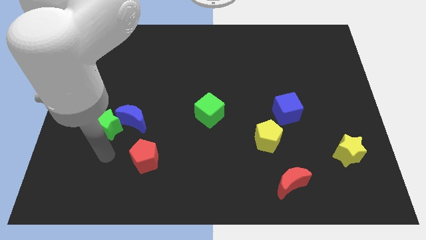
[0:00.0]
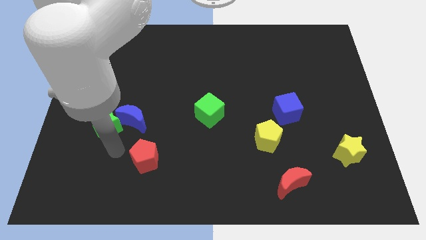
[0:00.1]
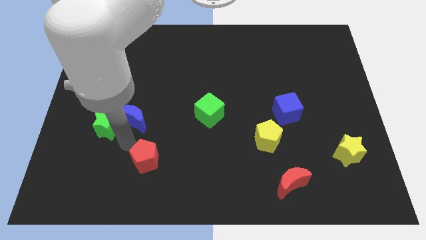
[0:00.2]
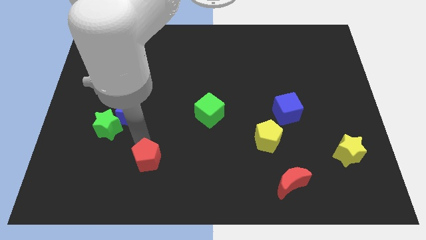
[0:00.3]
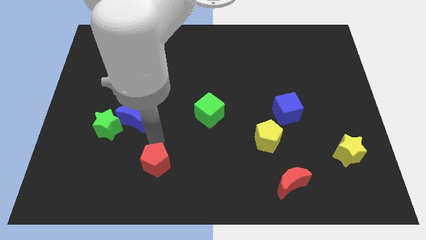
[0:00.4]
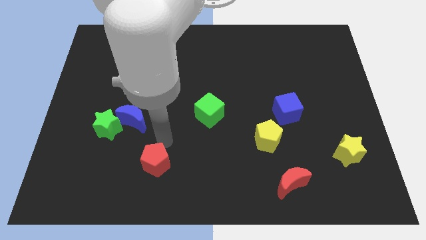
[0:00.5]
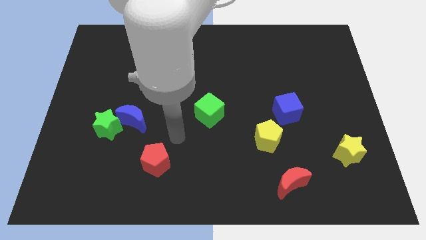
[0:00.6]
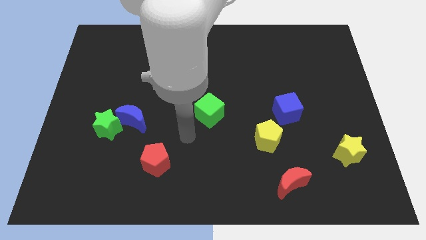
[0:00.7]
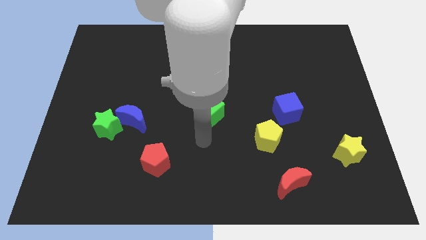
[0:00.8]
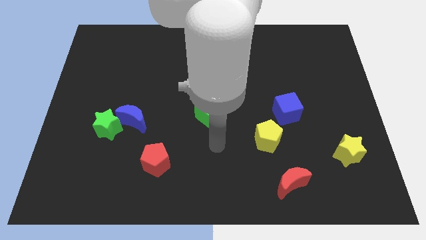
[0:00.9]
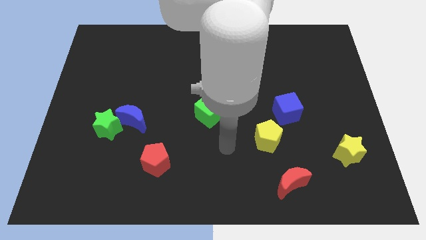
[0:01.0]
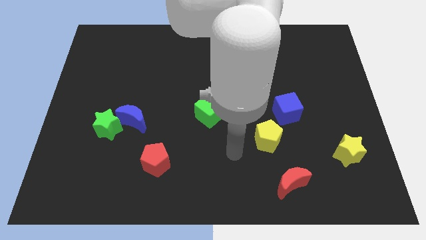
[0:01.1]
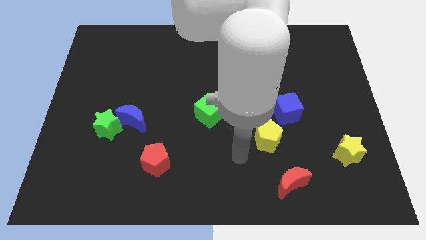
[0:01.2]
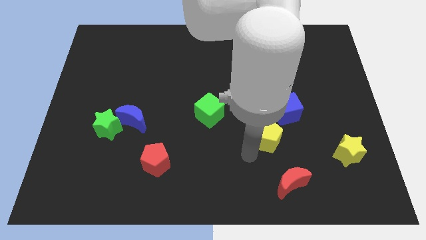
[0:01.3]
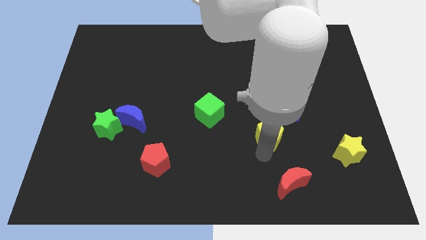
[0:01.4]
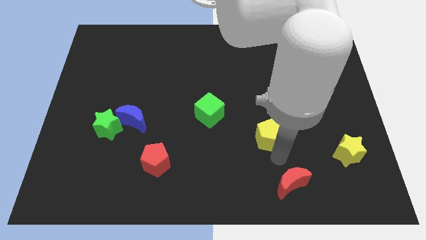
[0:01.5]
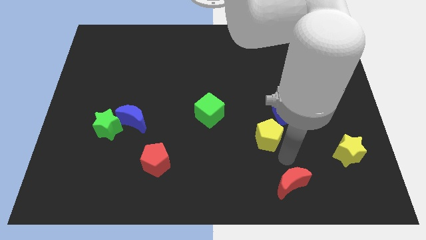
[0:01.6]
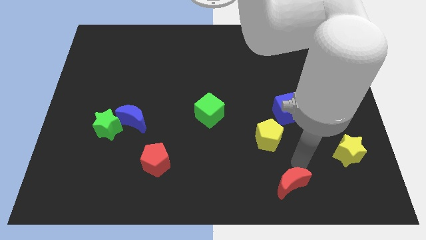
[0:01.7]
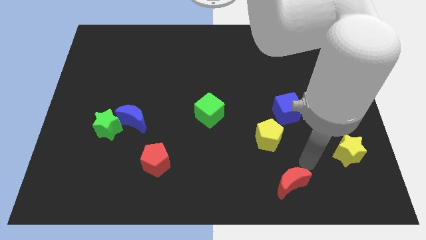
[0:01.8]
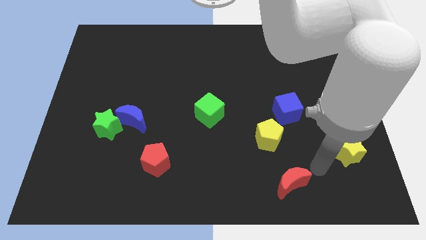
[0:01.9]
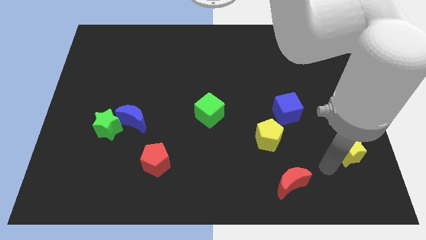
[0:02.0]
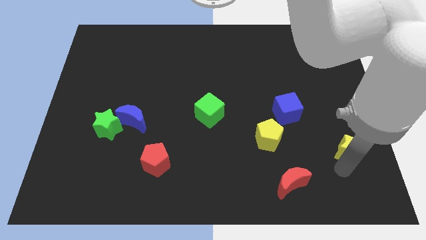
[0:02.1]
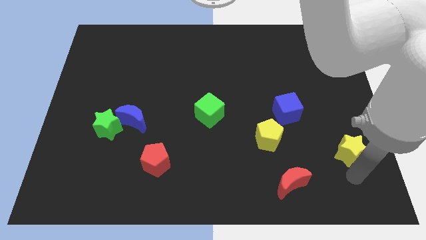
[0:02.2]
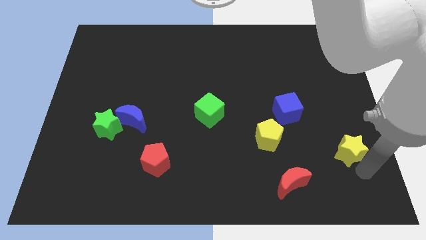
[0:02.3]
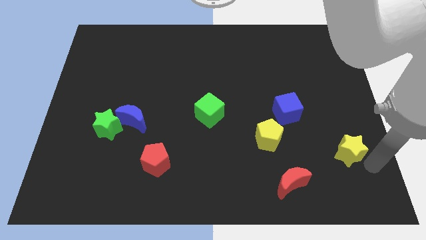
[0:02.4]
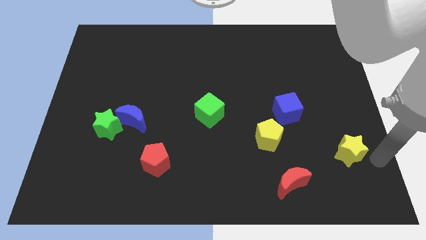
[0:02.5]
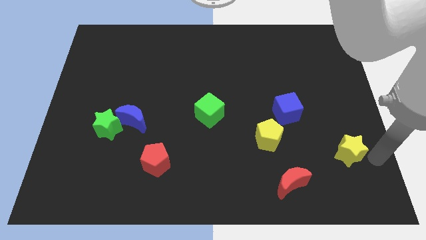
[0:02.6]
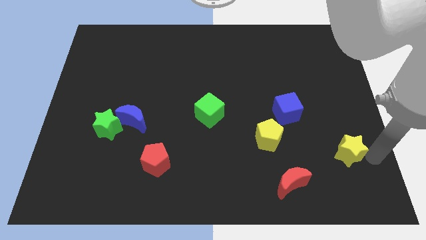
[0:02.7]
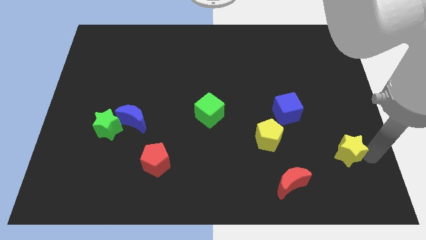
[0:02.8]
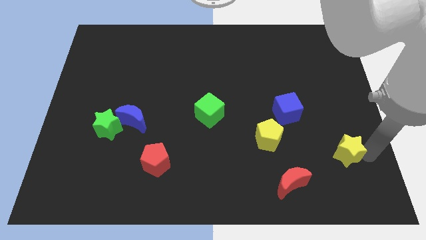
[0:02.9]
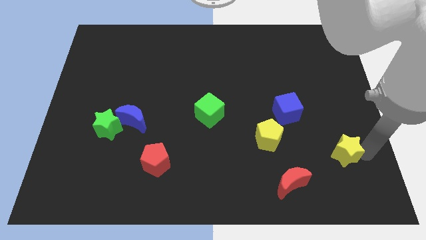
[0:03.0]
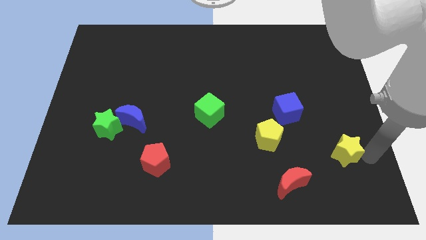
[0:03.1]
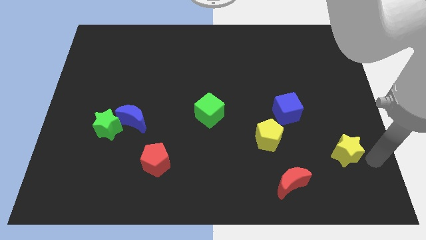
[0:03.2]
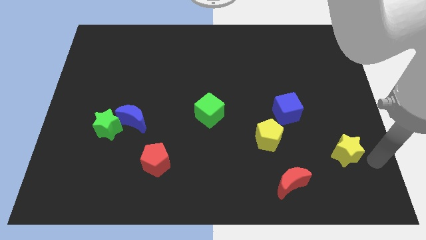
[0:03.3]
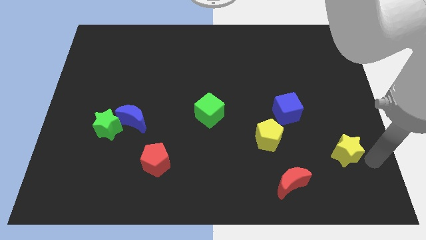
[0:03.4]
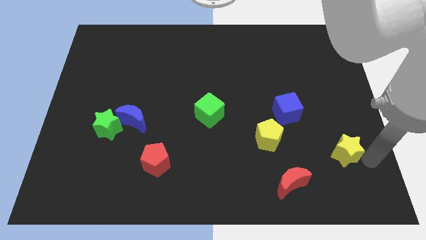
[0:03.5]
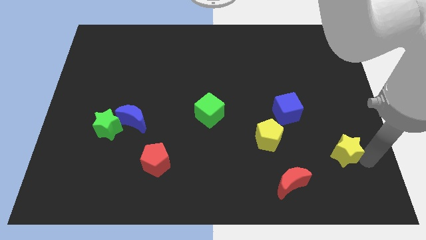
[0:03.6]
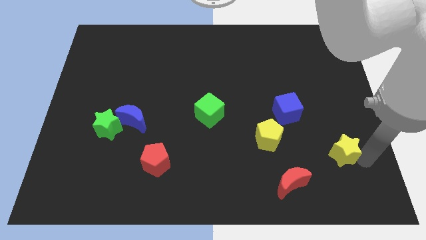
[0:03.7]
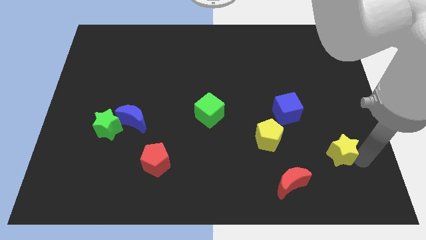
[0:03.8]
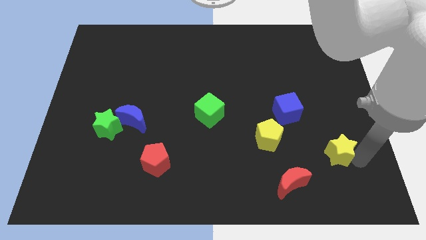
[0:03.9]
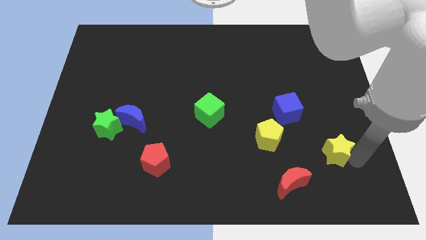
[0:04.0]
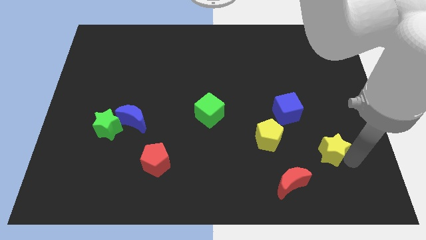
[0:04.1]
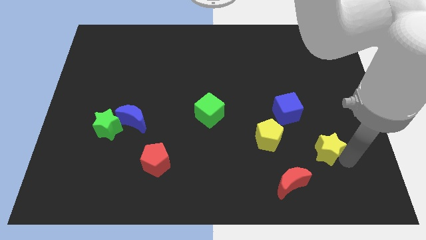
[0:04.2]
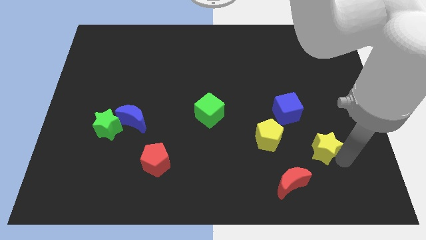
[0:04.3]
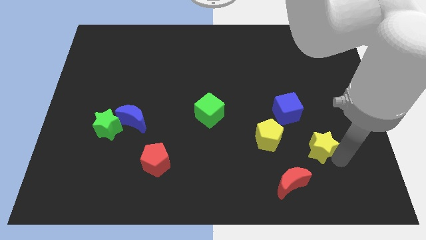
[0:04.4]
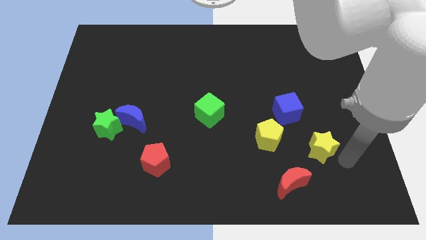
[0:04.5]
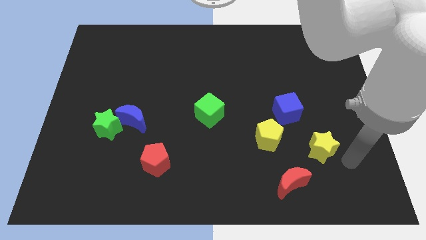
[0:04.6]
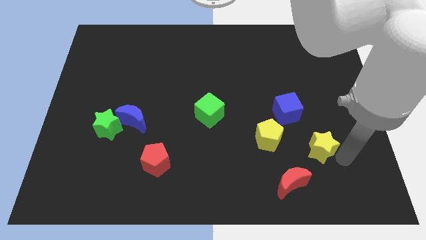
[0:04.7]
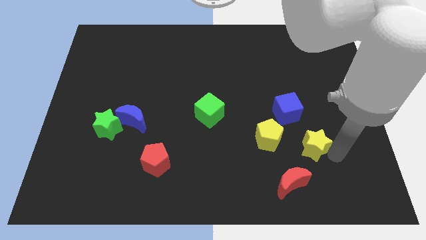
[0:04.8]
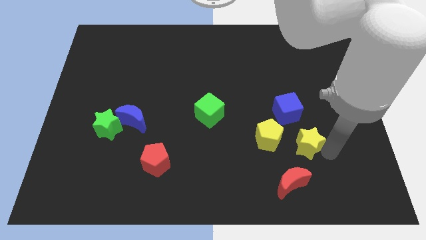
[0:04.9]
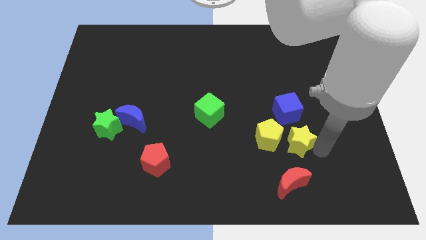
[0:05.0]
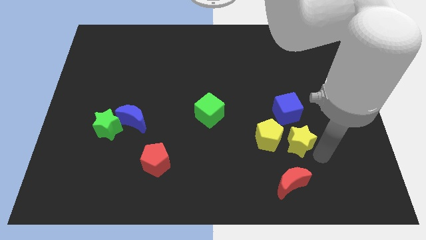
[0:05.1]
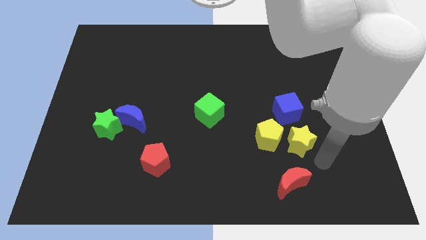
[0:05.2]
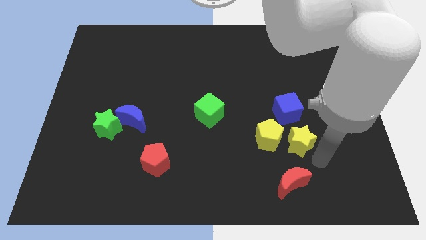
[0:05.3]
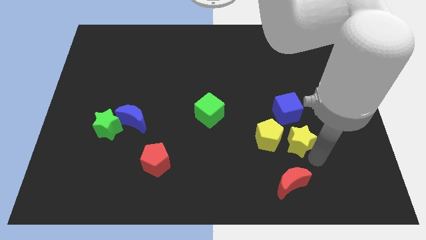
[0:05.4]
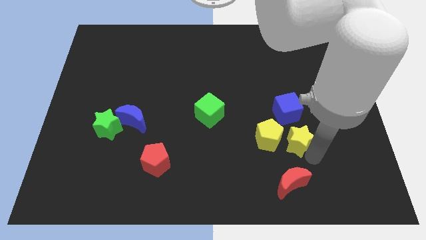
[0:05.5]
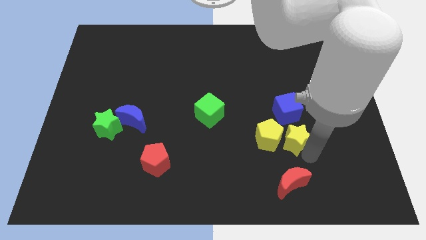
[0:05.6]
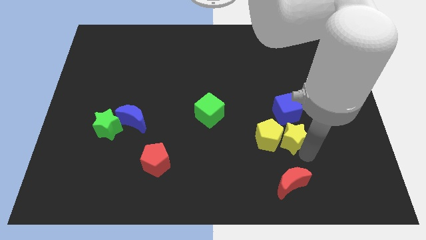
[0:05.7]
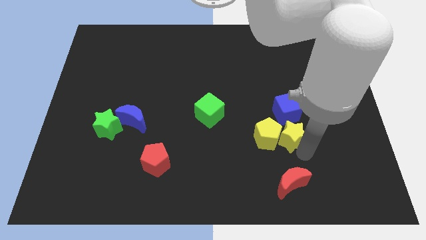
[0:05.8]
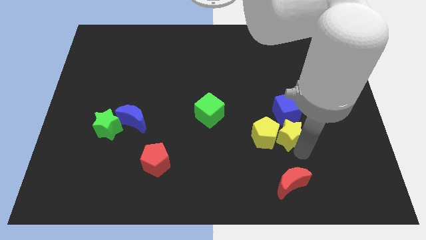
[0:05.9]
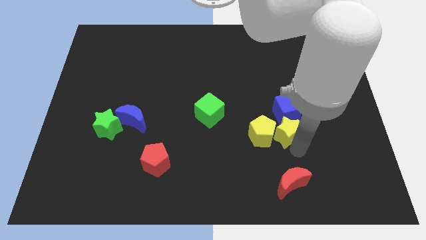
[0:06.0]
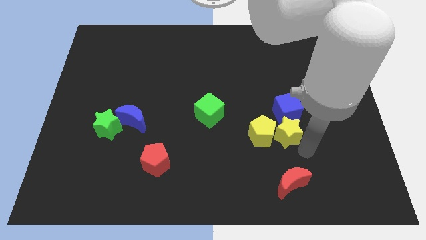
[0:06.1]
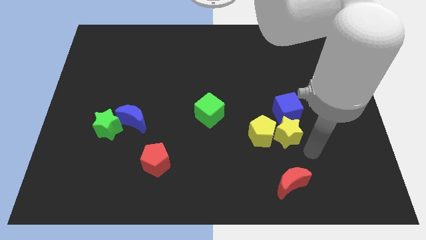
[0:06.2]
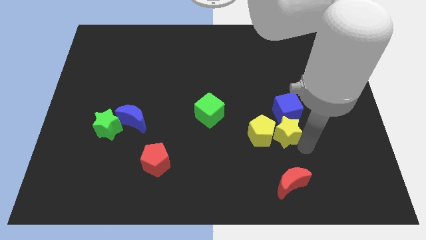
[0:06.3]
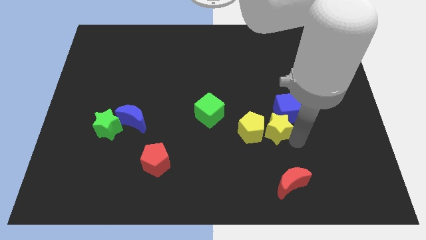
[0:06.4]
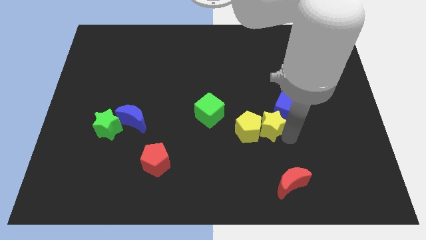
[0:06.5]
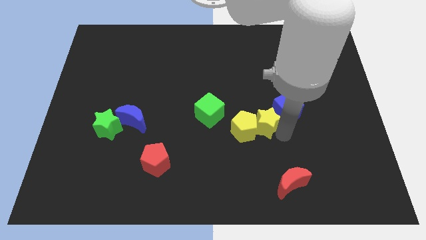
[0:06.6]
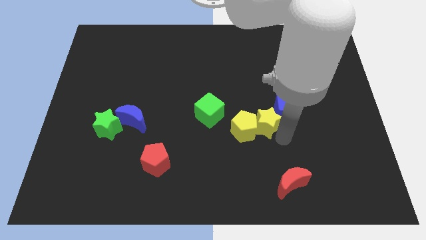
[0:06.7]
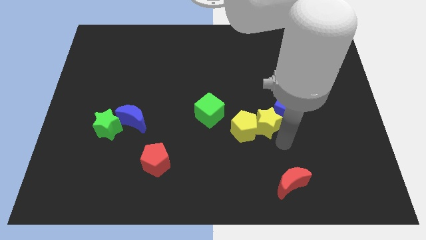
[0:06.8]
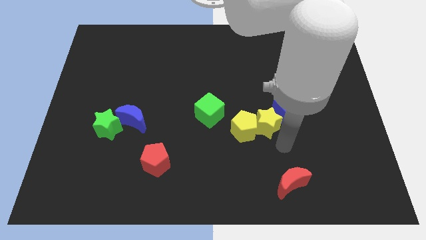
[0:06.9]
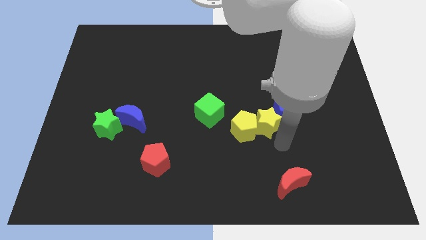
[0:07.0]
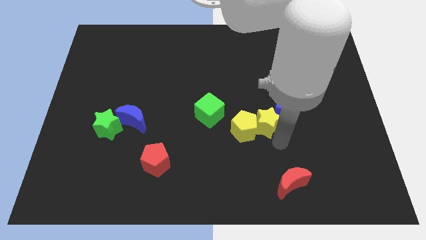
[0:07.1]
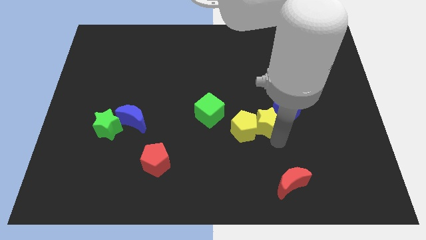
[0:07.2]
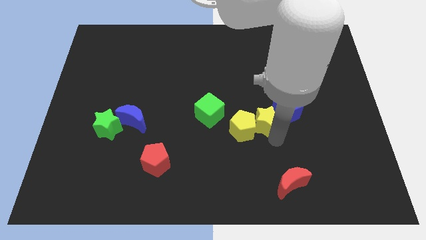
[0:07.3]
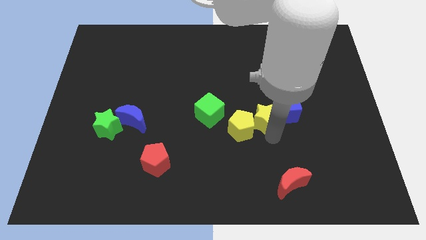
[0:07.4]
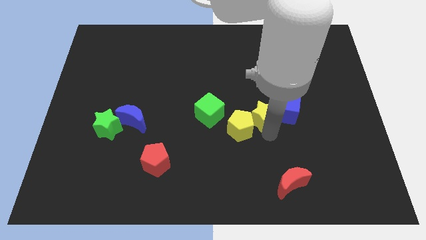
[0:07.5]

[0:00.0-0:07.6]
move the yellow star to the middle of the board
